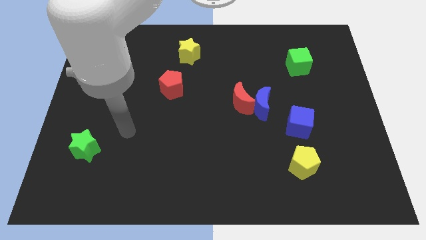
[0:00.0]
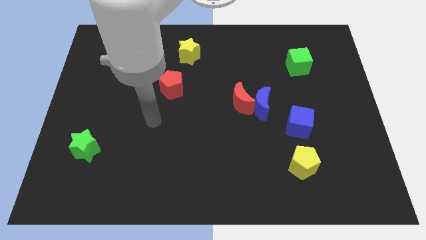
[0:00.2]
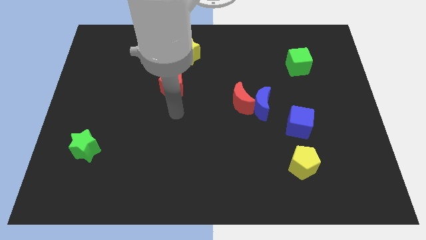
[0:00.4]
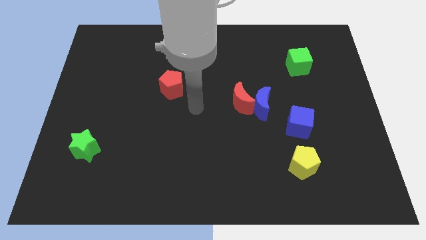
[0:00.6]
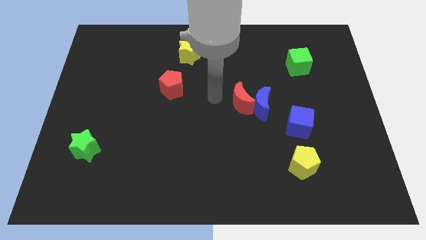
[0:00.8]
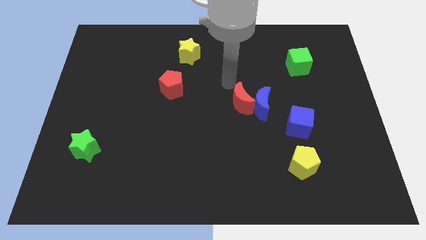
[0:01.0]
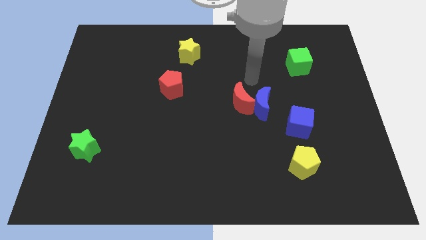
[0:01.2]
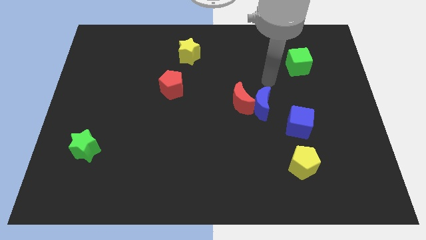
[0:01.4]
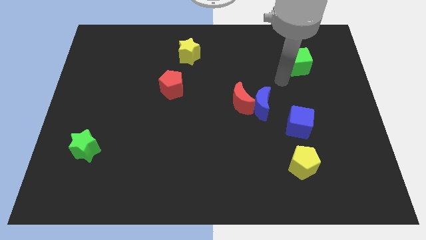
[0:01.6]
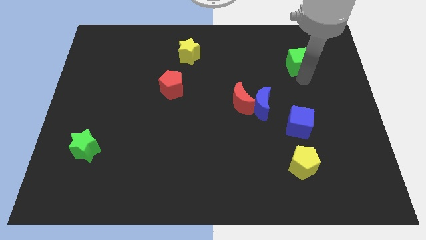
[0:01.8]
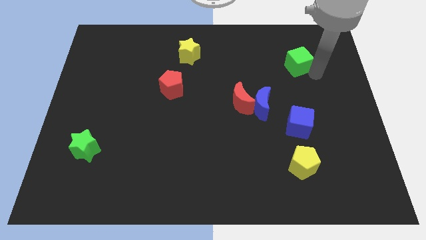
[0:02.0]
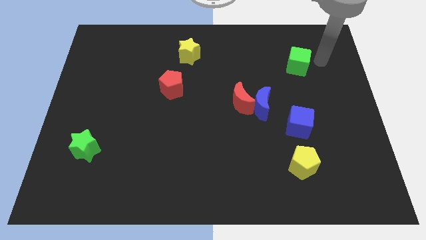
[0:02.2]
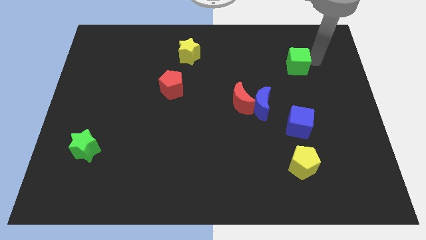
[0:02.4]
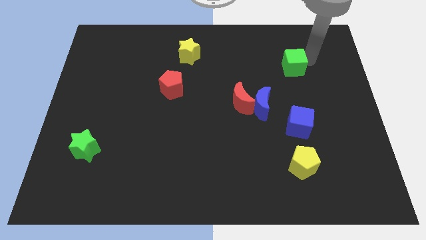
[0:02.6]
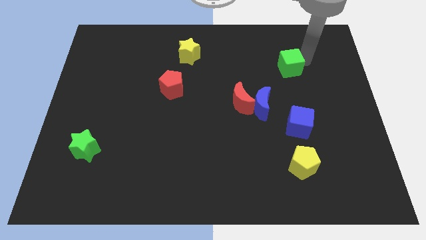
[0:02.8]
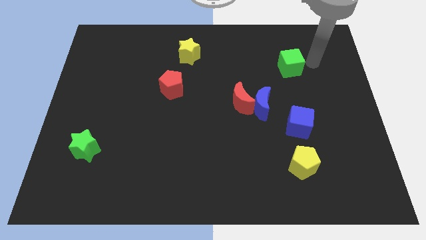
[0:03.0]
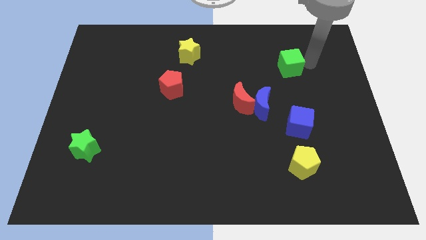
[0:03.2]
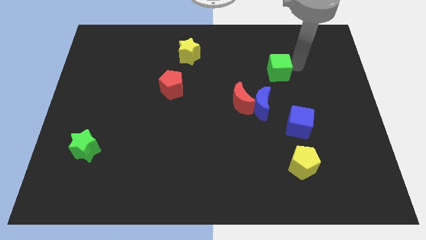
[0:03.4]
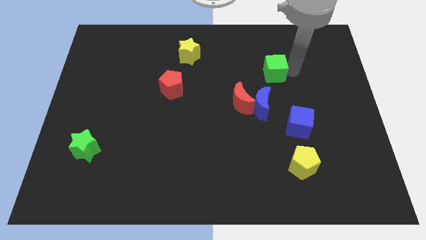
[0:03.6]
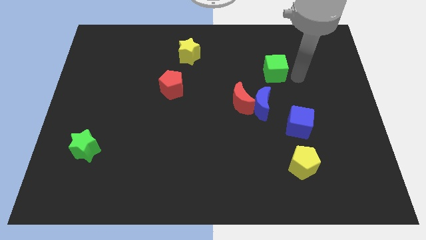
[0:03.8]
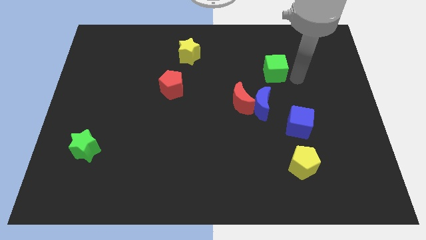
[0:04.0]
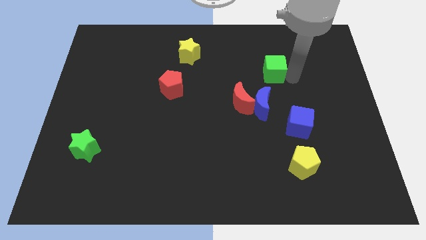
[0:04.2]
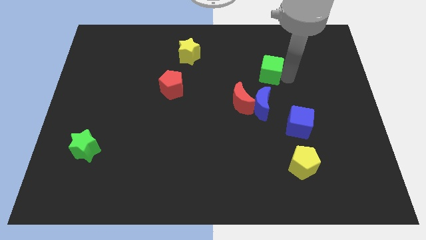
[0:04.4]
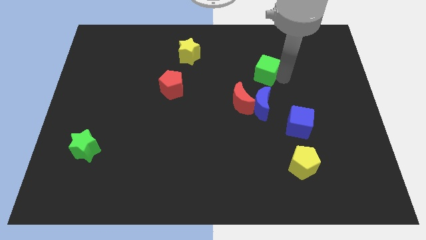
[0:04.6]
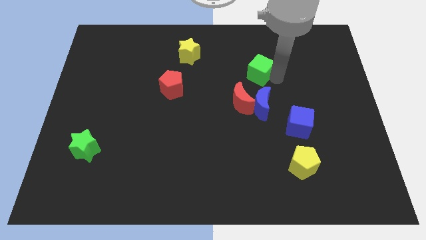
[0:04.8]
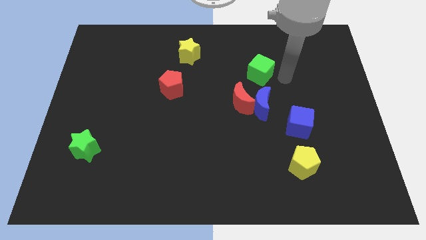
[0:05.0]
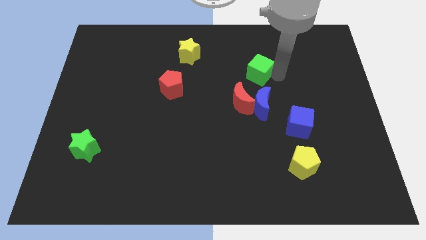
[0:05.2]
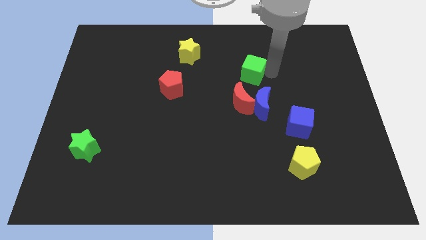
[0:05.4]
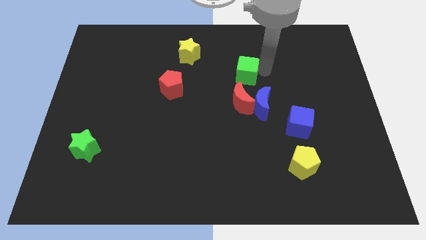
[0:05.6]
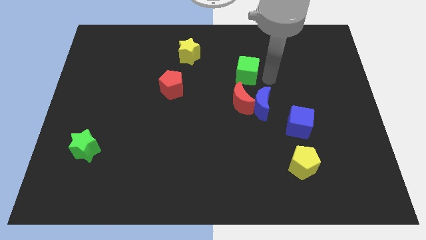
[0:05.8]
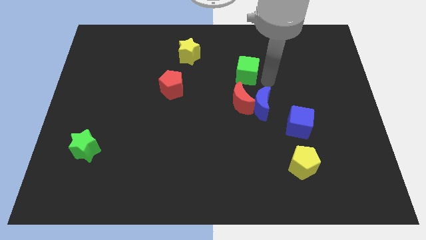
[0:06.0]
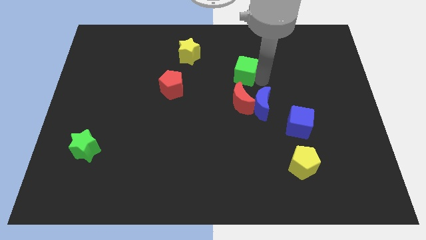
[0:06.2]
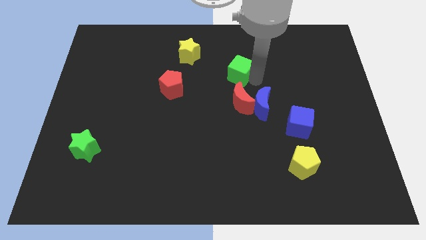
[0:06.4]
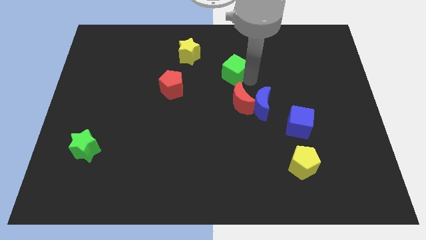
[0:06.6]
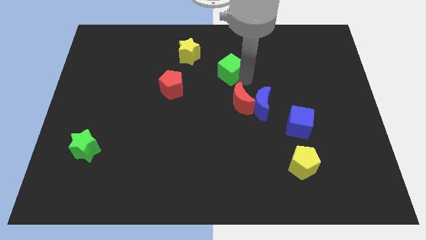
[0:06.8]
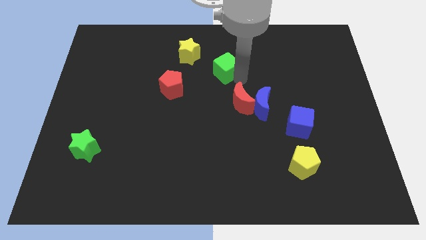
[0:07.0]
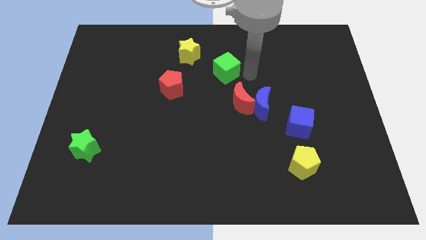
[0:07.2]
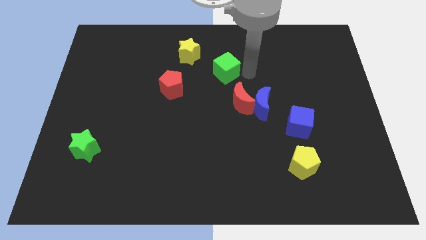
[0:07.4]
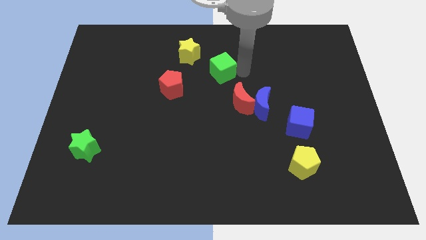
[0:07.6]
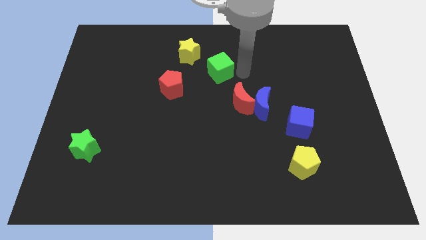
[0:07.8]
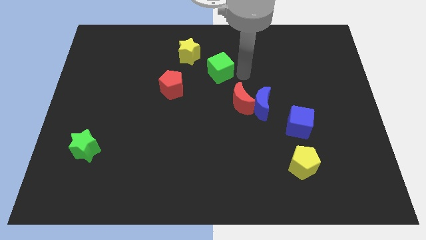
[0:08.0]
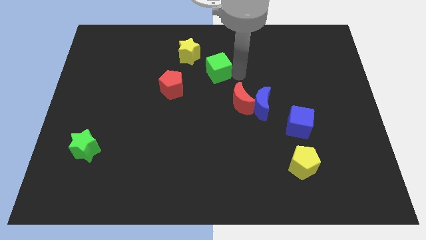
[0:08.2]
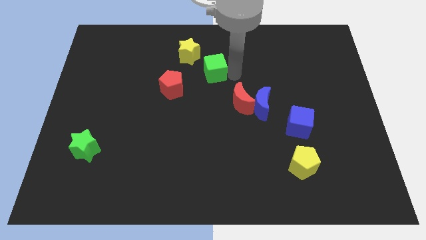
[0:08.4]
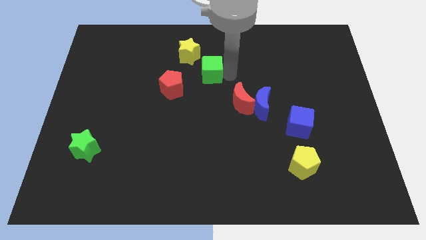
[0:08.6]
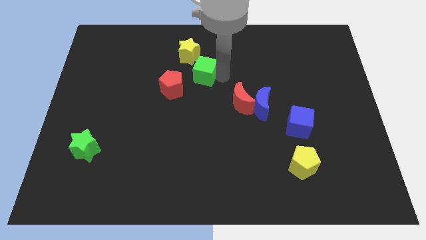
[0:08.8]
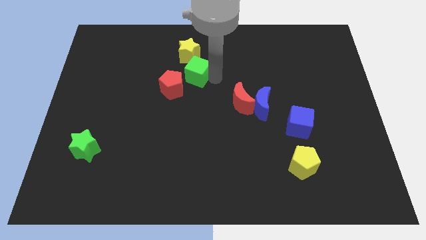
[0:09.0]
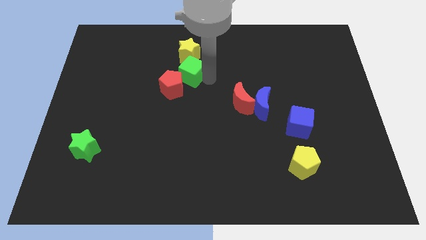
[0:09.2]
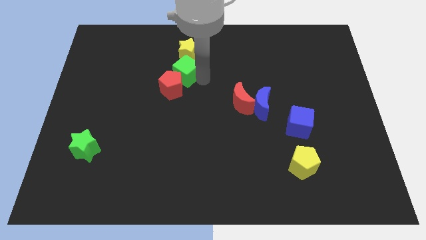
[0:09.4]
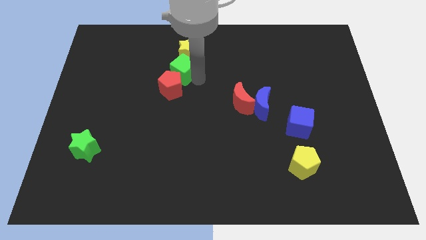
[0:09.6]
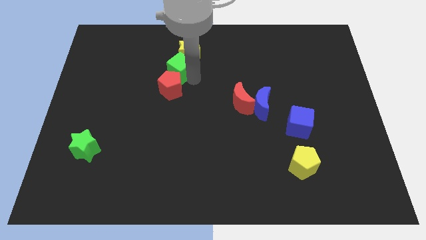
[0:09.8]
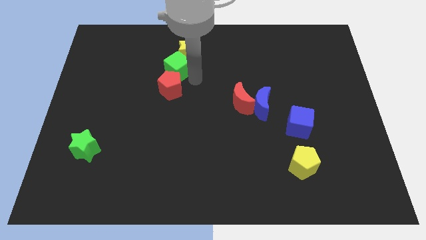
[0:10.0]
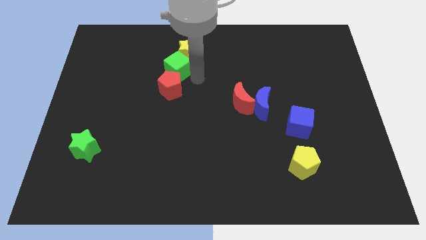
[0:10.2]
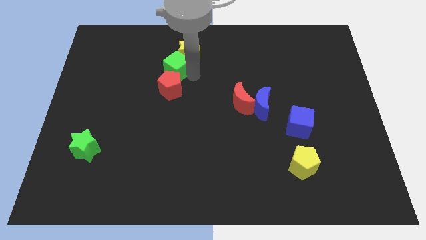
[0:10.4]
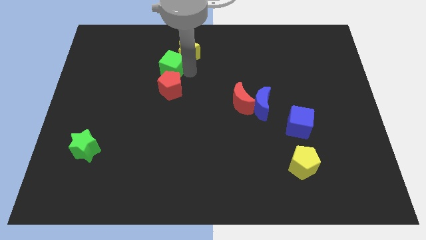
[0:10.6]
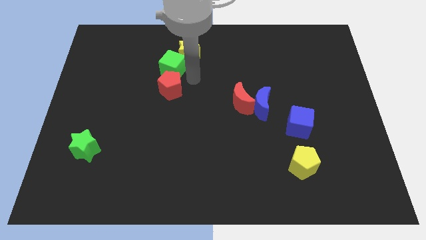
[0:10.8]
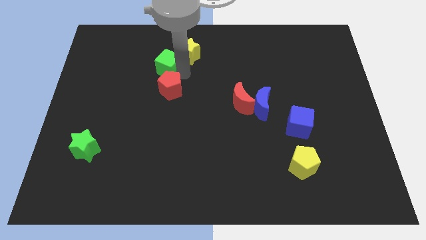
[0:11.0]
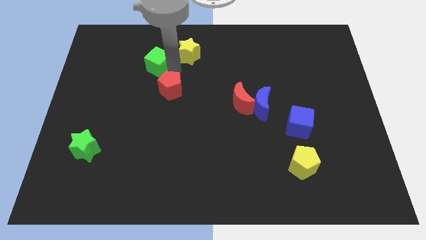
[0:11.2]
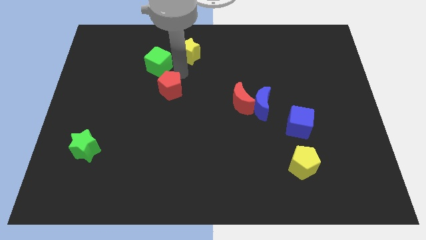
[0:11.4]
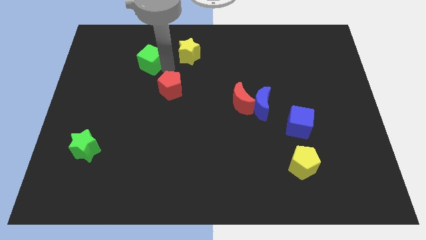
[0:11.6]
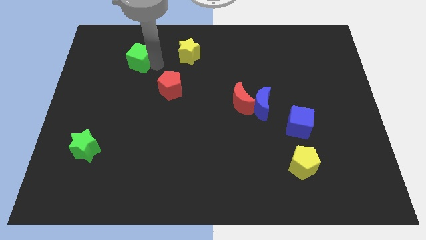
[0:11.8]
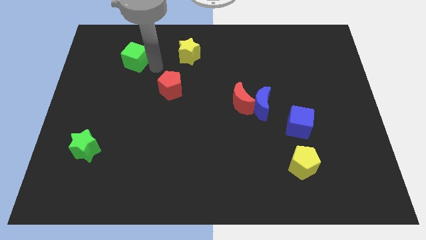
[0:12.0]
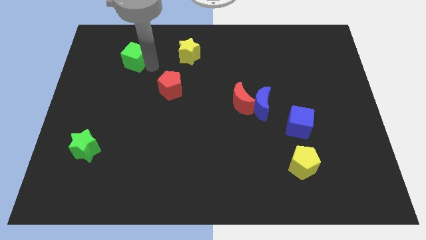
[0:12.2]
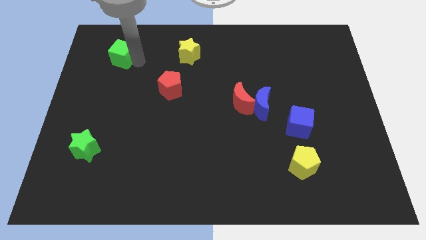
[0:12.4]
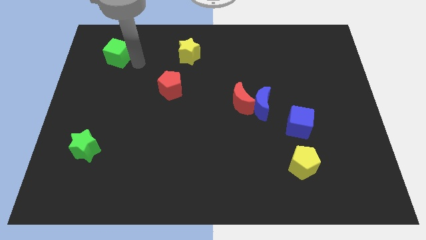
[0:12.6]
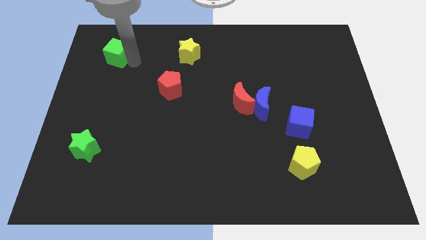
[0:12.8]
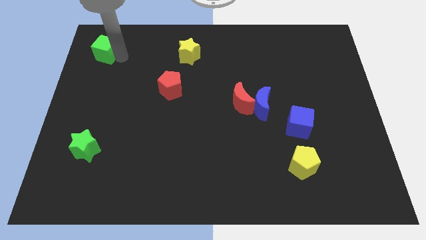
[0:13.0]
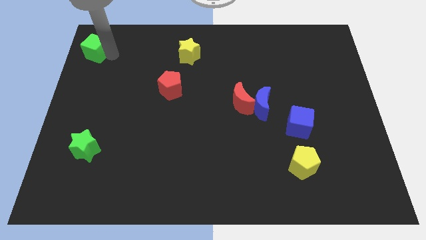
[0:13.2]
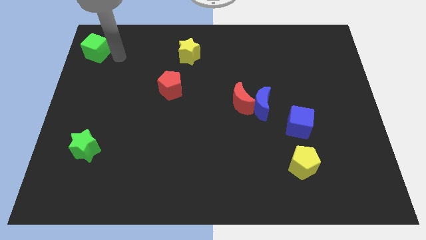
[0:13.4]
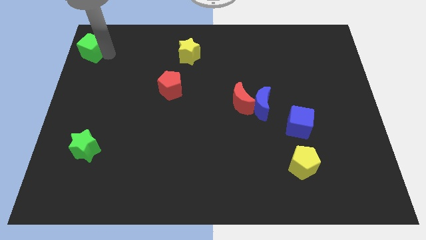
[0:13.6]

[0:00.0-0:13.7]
slide the green cube to the top left corner
